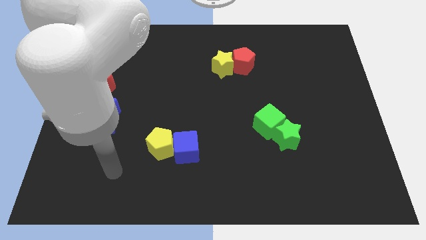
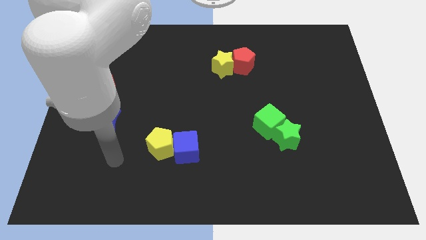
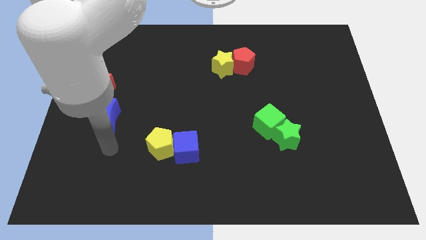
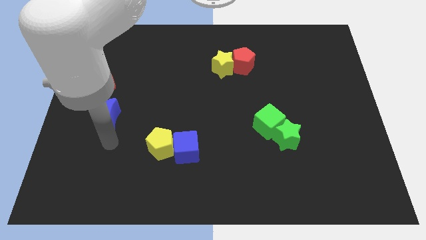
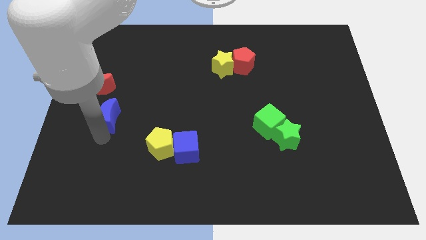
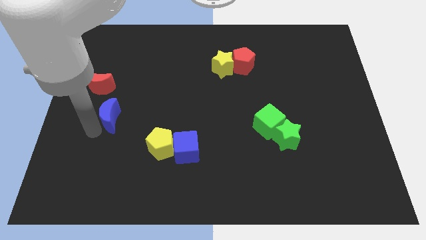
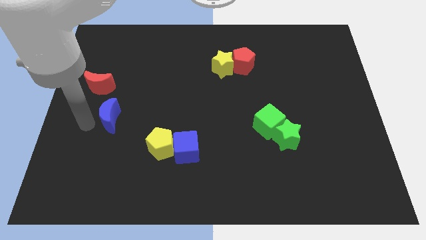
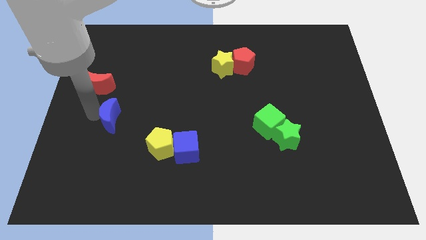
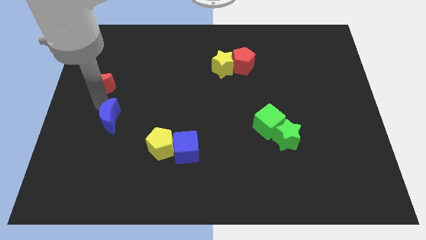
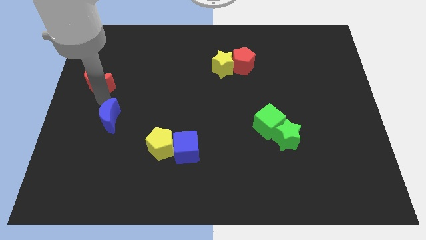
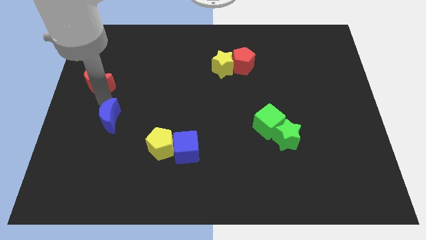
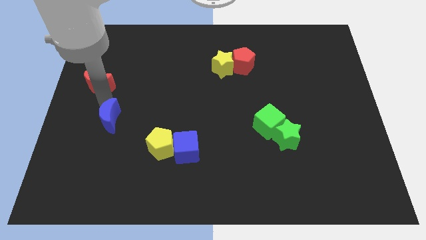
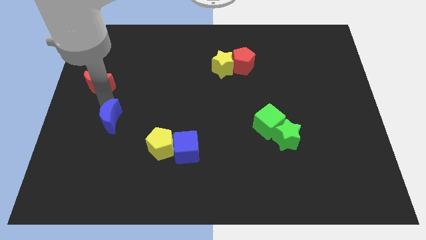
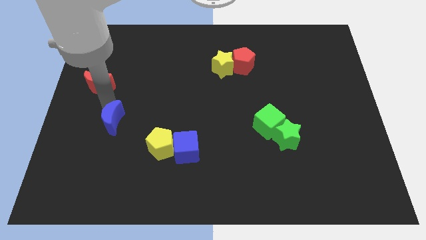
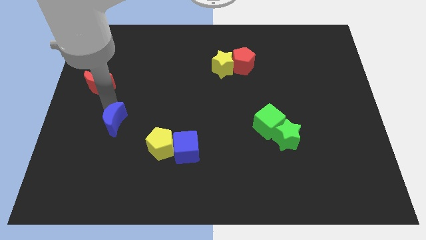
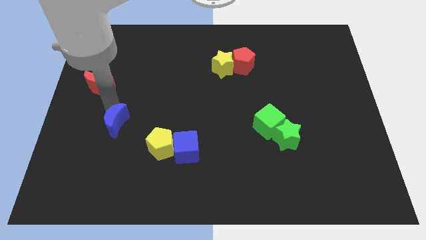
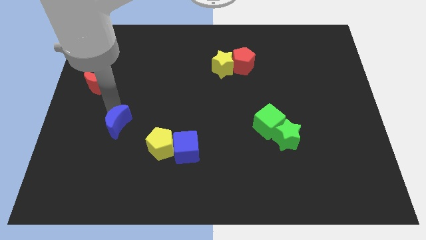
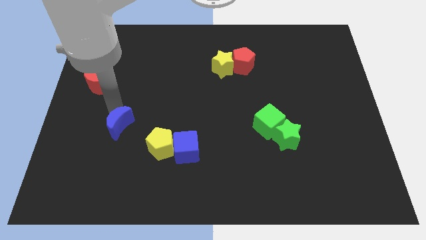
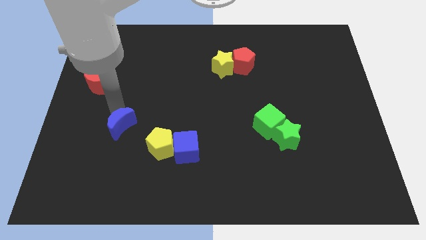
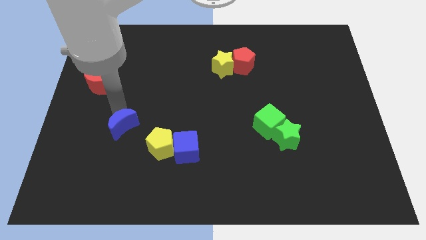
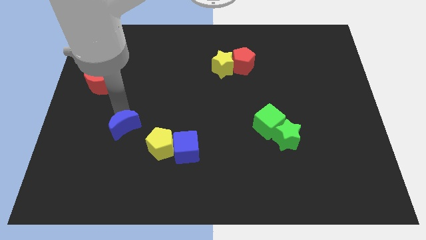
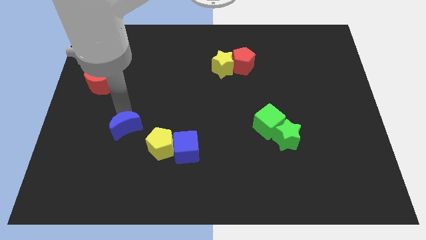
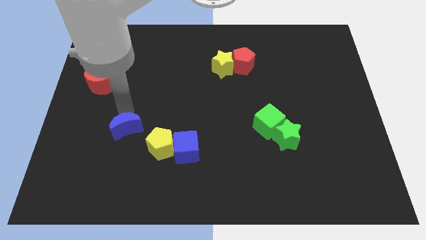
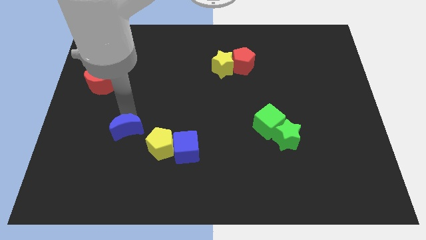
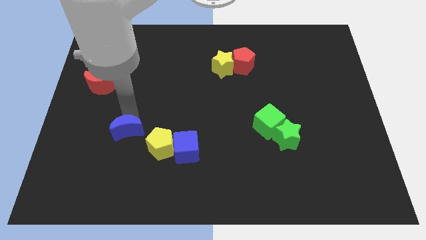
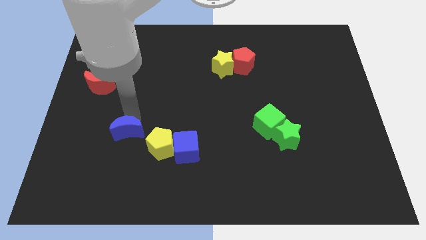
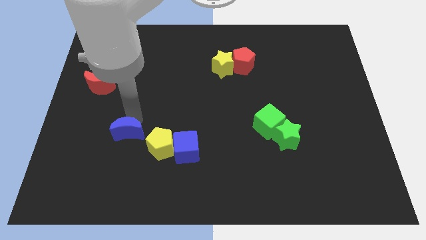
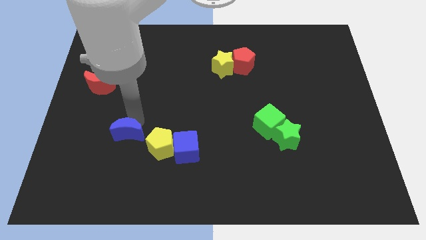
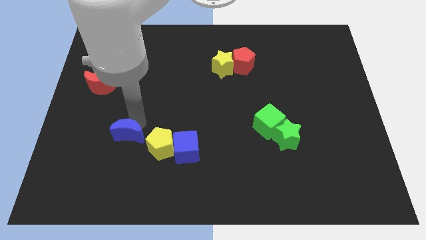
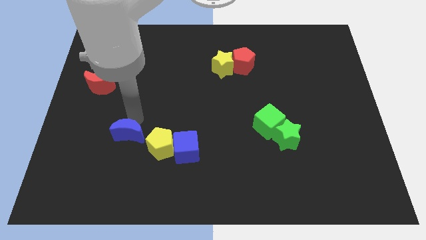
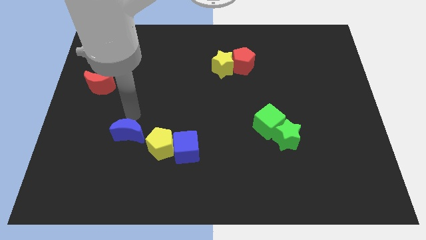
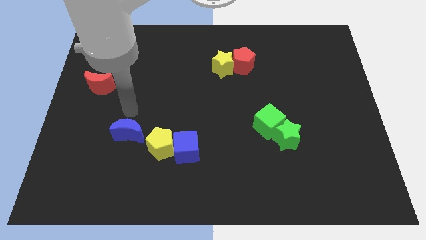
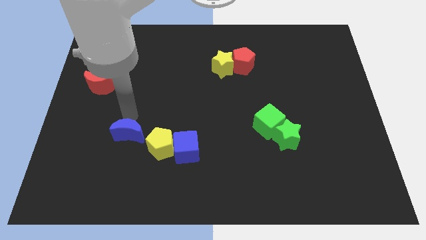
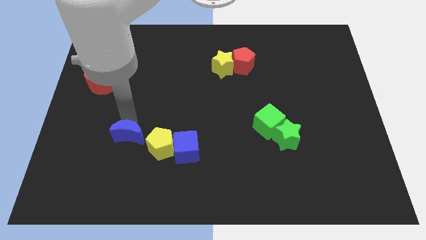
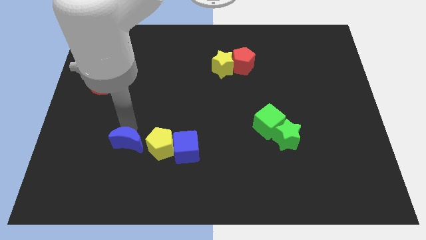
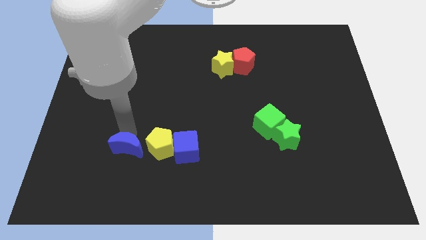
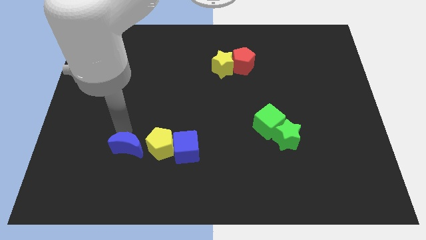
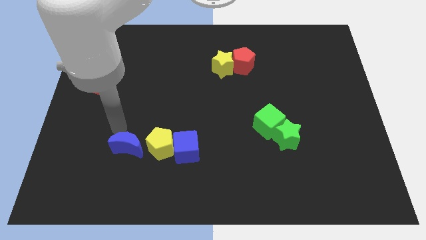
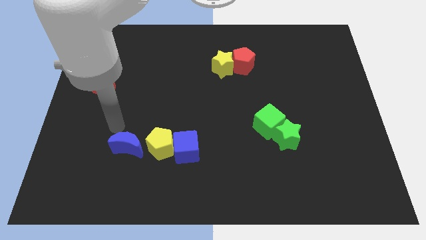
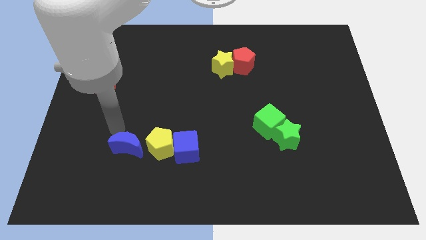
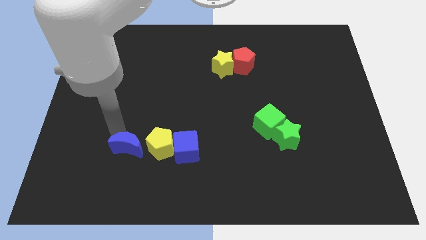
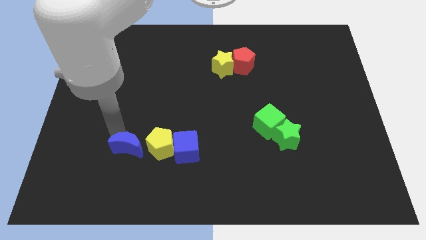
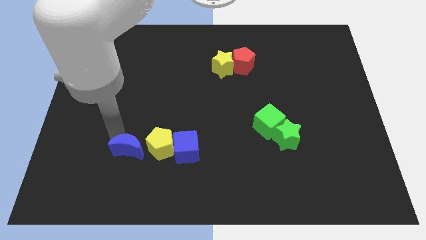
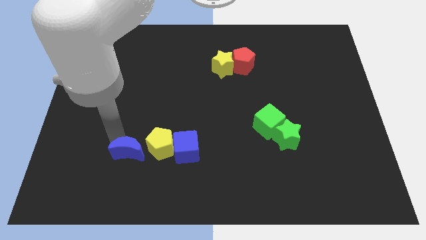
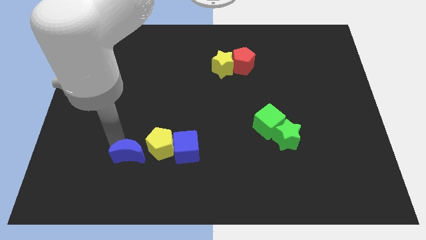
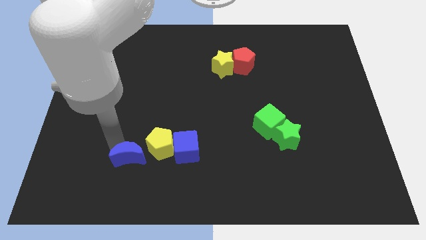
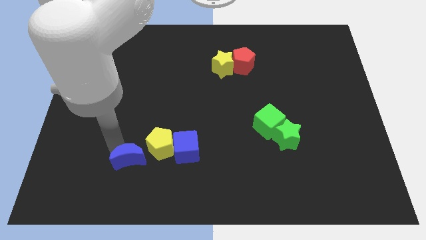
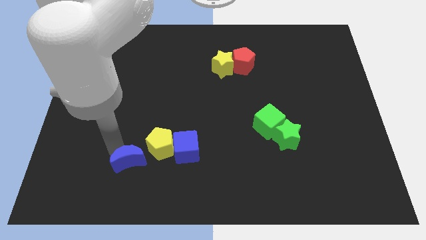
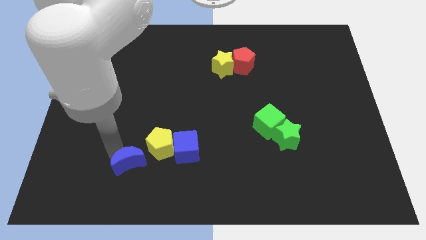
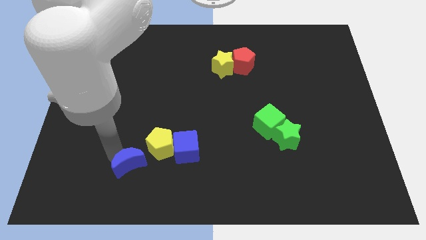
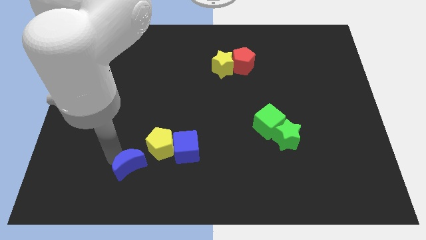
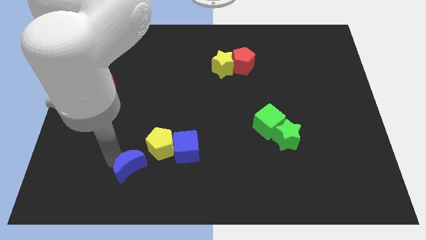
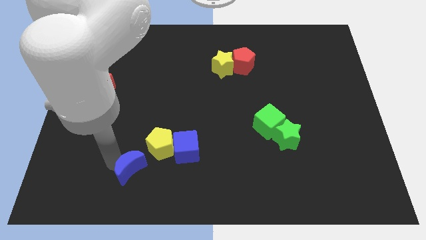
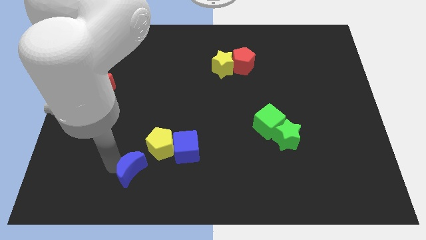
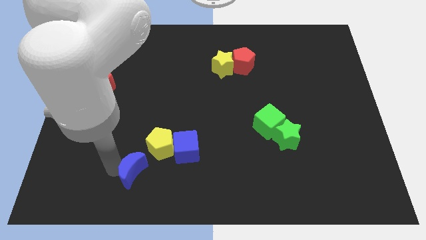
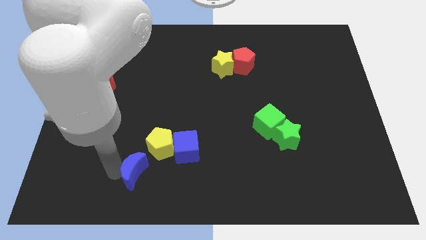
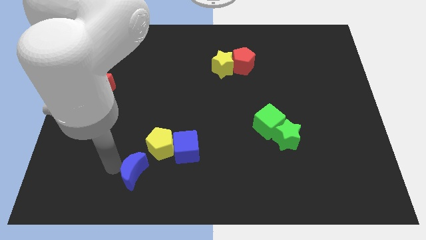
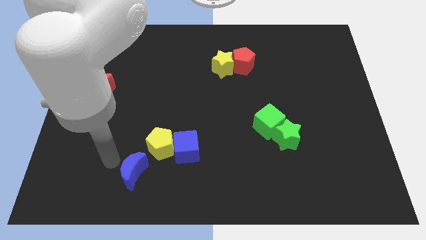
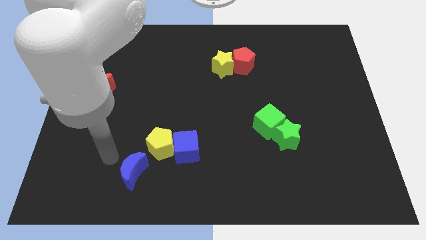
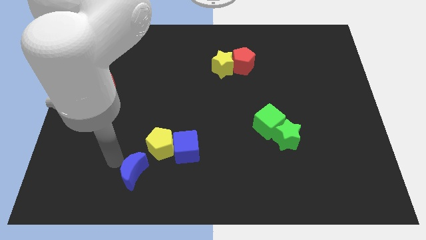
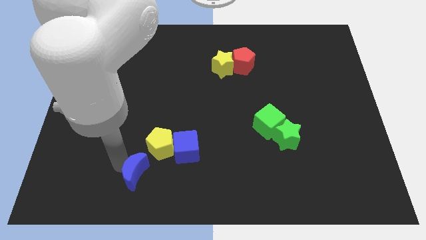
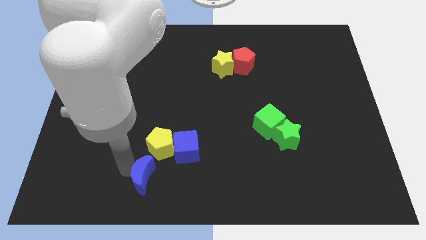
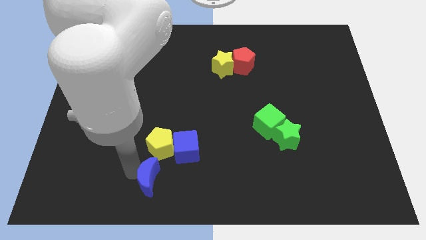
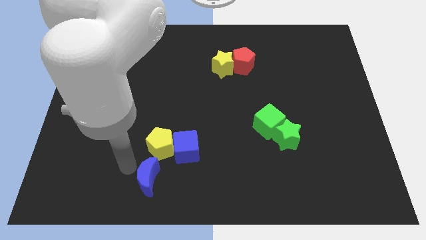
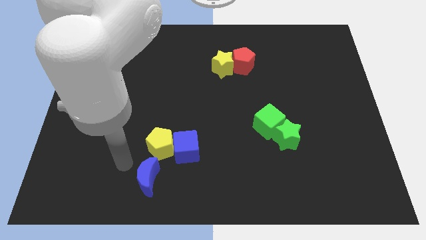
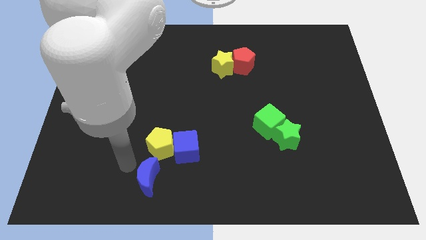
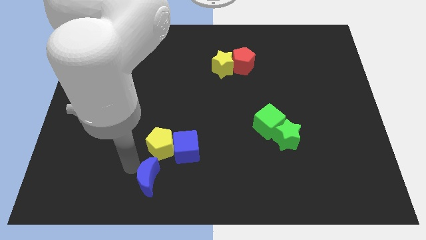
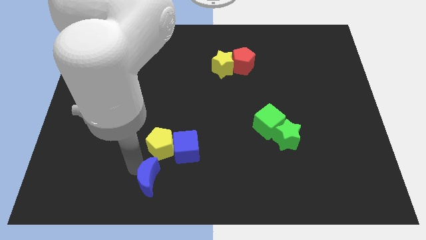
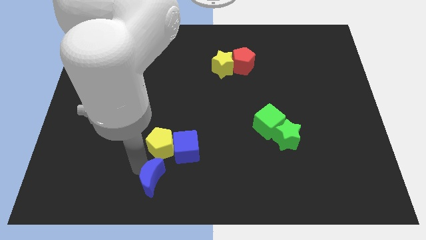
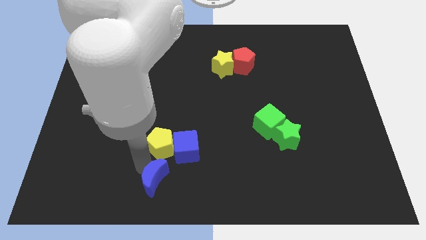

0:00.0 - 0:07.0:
move the blue moon to the bottom side
